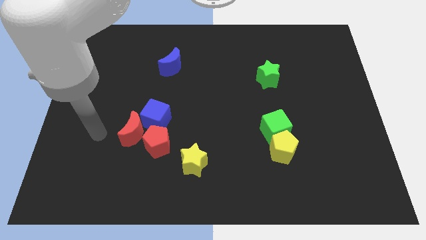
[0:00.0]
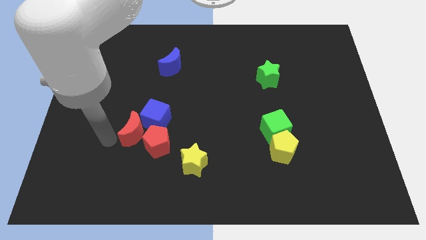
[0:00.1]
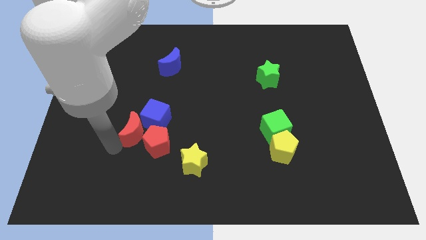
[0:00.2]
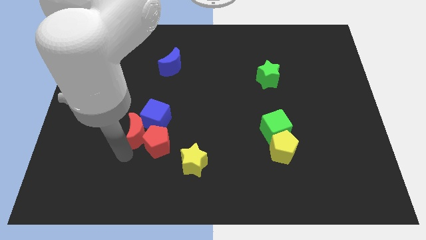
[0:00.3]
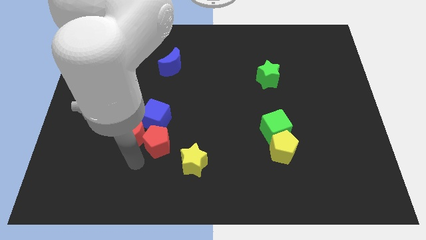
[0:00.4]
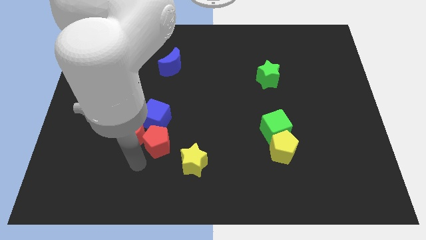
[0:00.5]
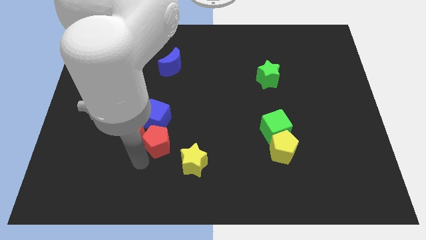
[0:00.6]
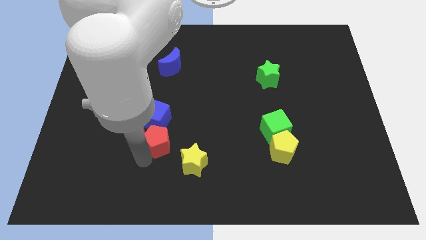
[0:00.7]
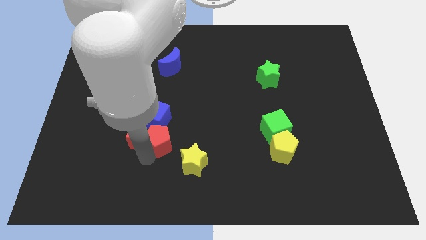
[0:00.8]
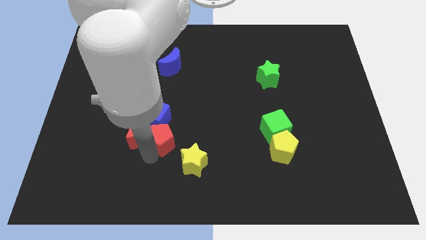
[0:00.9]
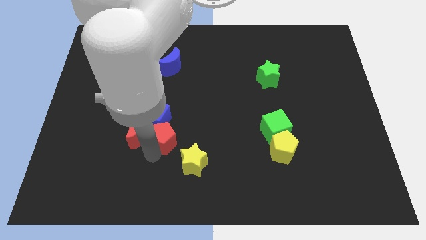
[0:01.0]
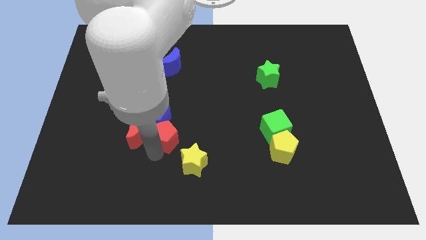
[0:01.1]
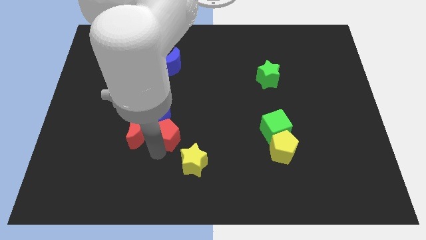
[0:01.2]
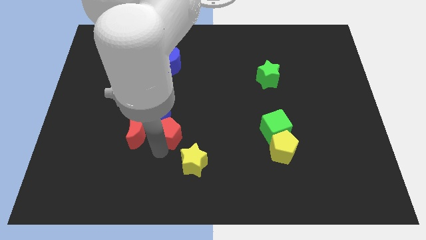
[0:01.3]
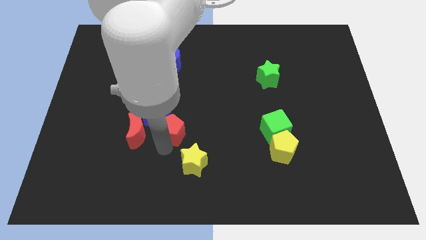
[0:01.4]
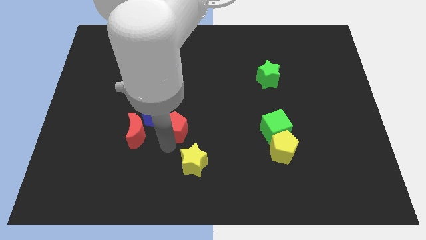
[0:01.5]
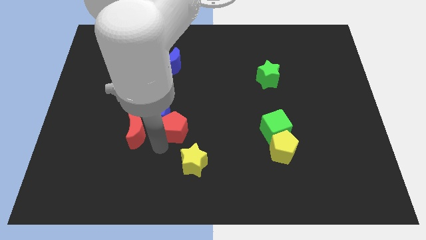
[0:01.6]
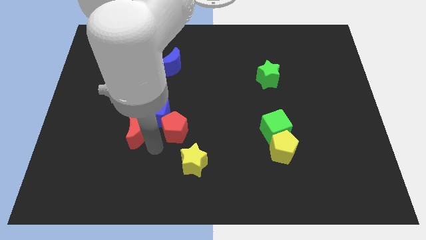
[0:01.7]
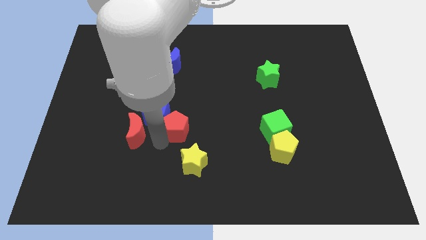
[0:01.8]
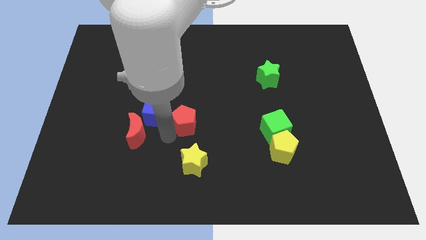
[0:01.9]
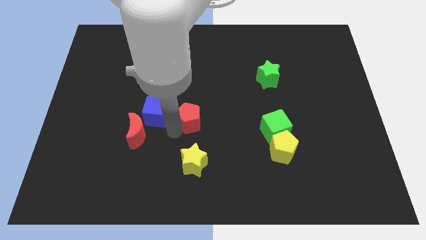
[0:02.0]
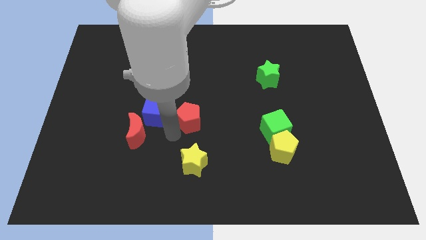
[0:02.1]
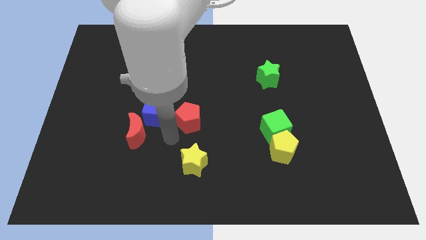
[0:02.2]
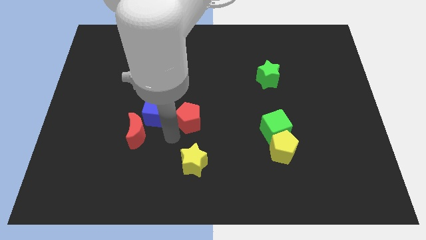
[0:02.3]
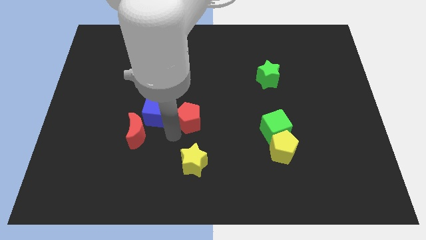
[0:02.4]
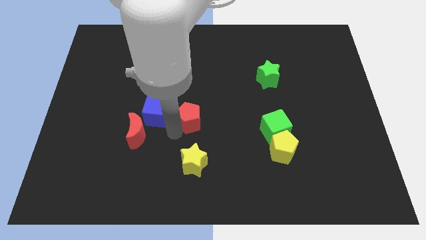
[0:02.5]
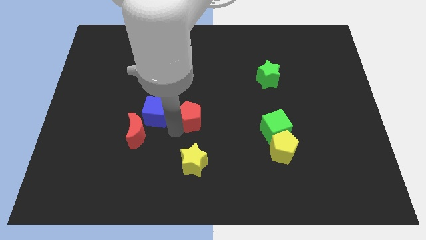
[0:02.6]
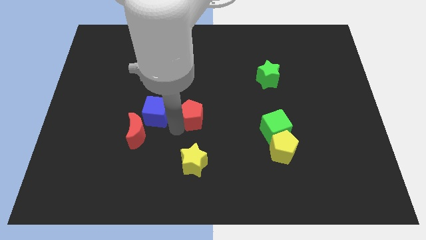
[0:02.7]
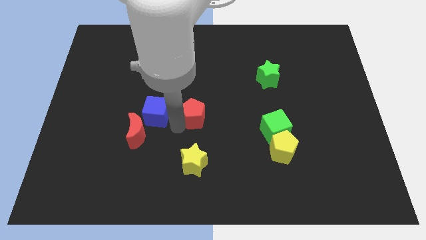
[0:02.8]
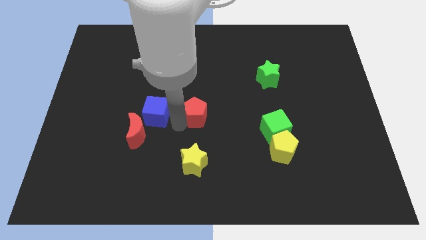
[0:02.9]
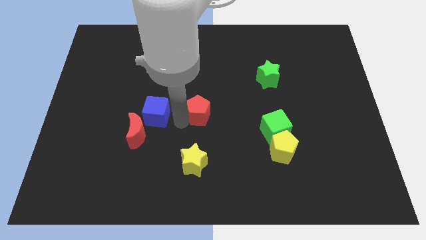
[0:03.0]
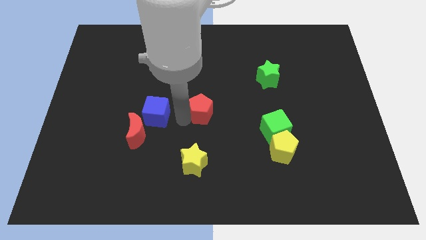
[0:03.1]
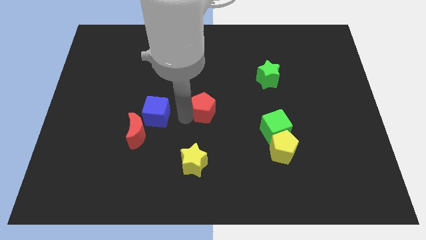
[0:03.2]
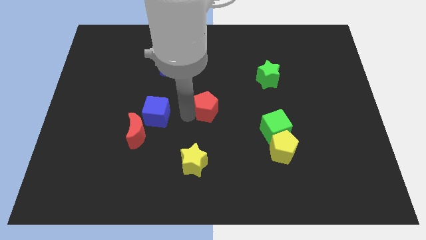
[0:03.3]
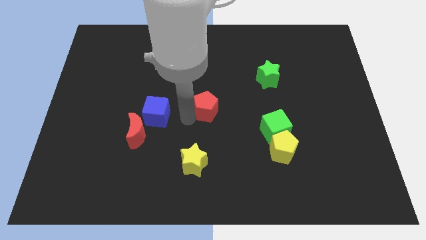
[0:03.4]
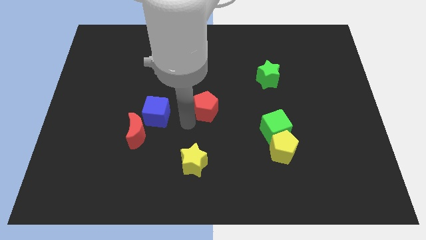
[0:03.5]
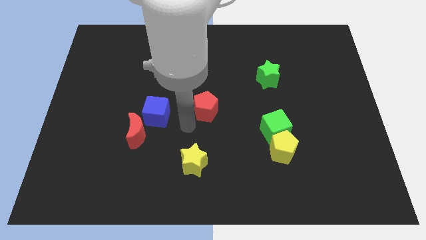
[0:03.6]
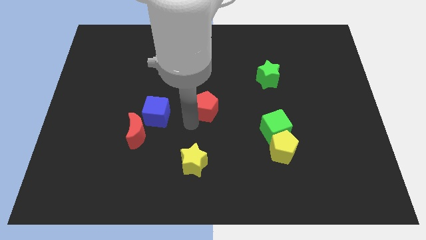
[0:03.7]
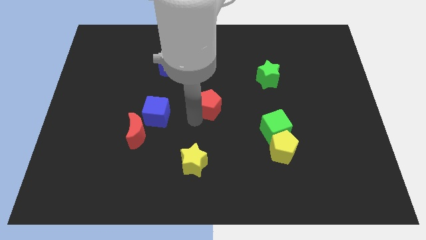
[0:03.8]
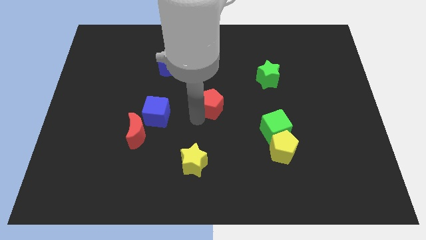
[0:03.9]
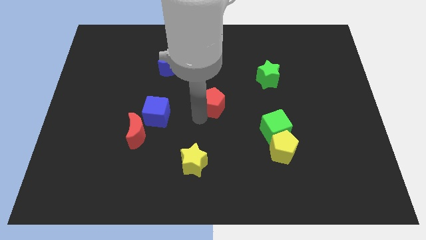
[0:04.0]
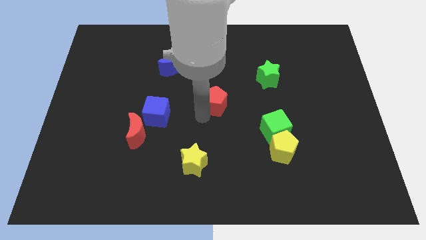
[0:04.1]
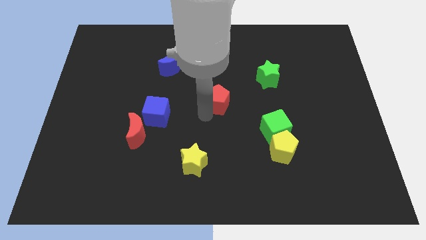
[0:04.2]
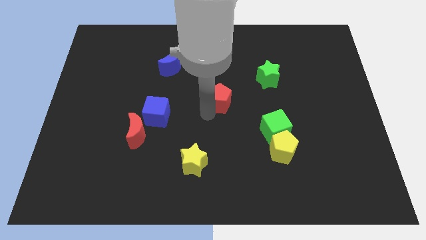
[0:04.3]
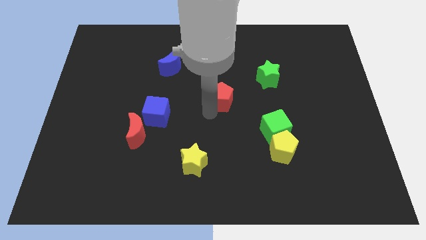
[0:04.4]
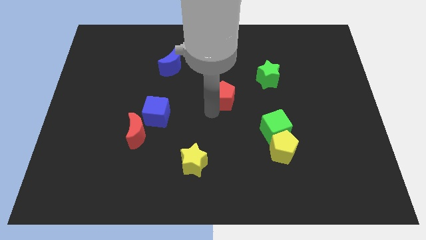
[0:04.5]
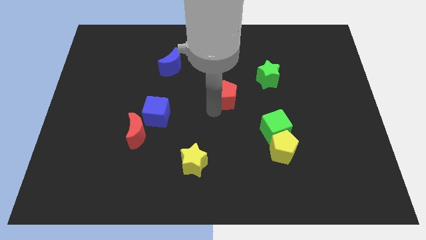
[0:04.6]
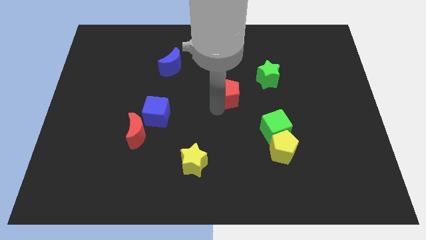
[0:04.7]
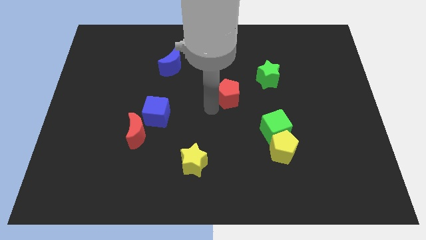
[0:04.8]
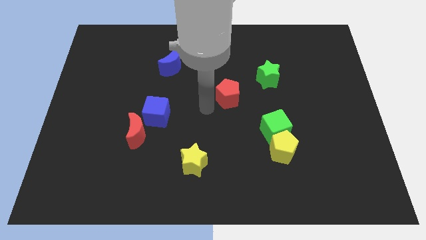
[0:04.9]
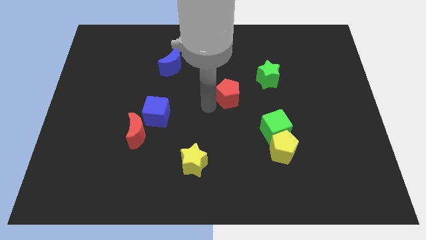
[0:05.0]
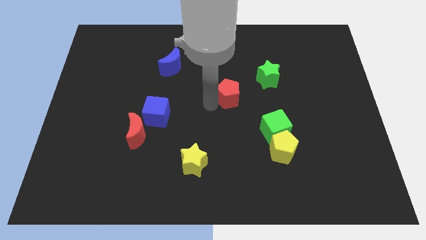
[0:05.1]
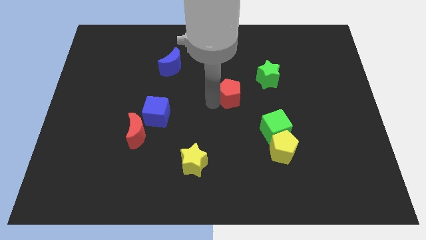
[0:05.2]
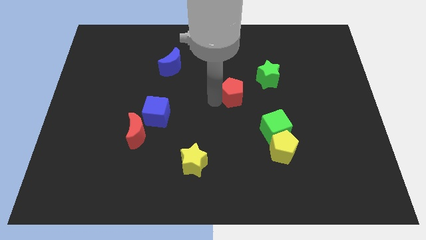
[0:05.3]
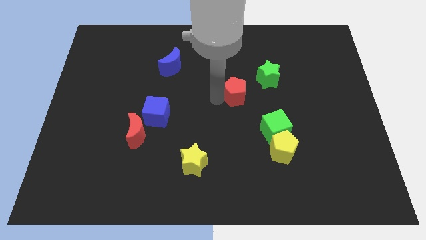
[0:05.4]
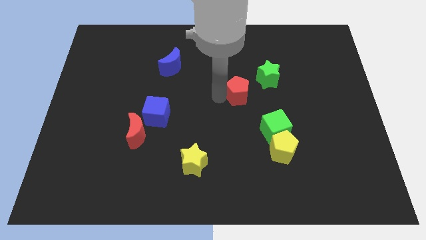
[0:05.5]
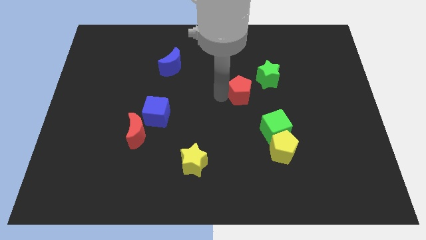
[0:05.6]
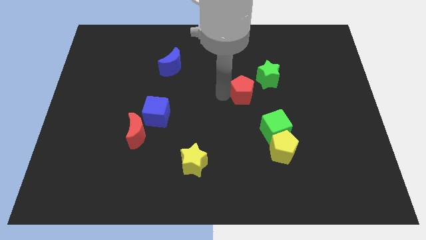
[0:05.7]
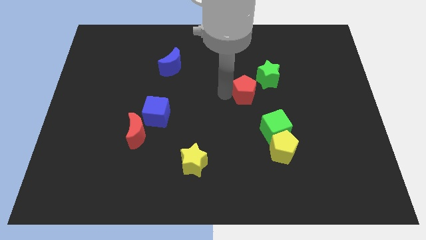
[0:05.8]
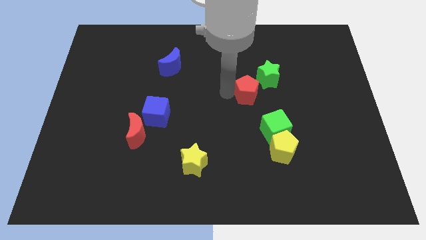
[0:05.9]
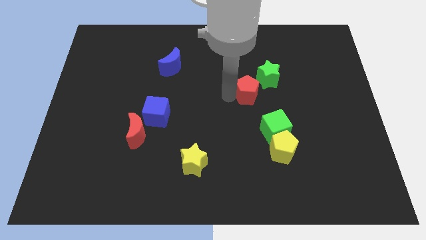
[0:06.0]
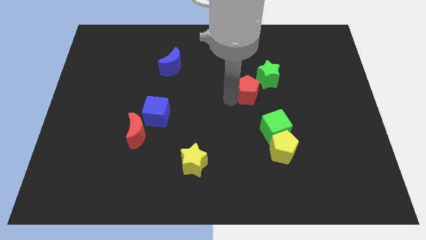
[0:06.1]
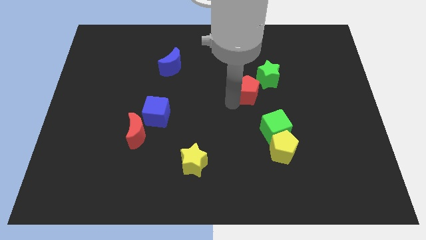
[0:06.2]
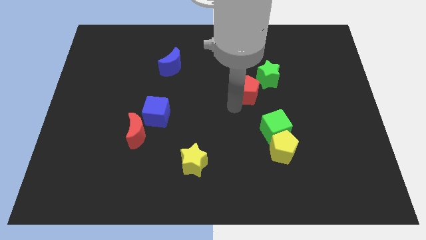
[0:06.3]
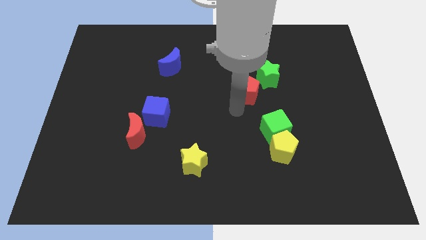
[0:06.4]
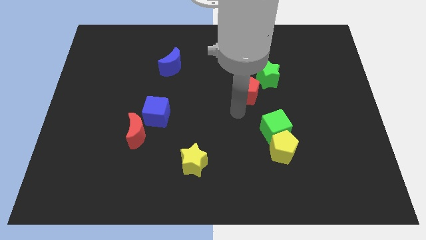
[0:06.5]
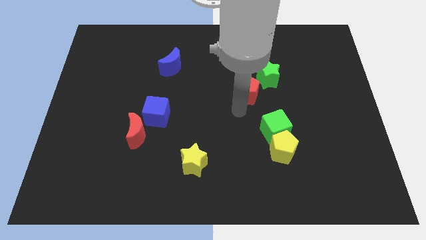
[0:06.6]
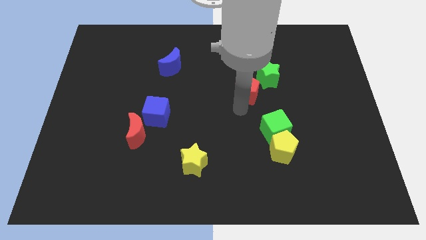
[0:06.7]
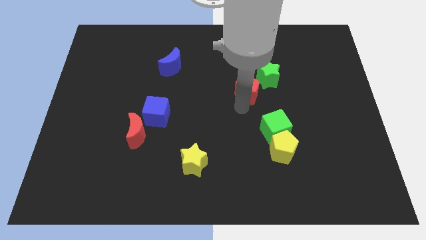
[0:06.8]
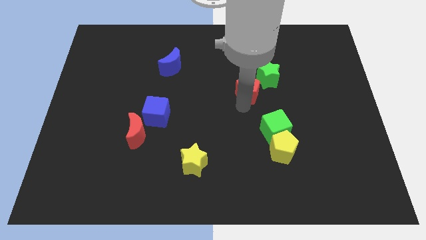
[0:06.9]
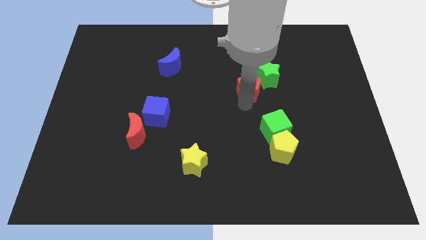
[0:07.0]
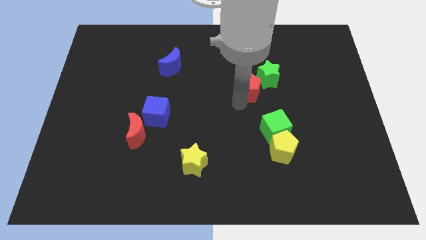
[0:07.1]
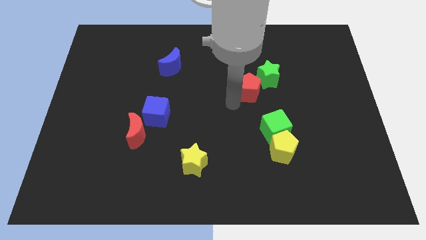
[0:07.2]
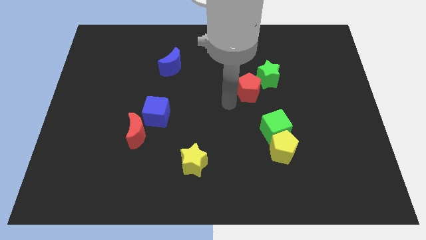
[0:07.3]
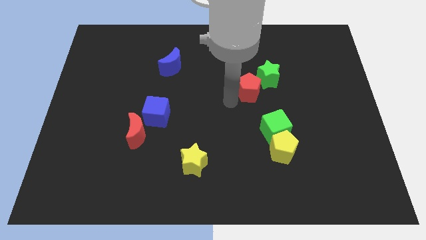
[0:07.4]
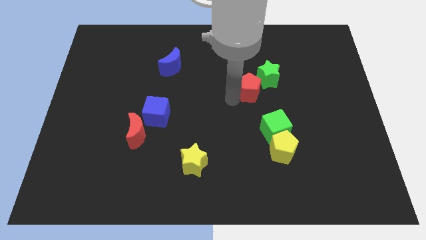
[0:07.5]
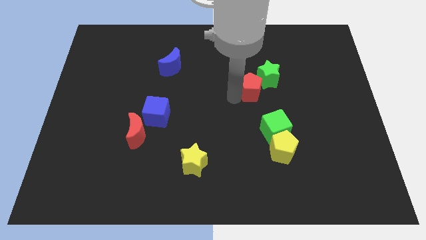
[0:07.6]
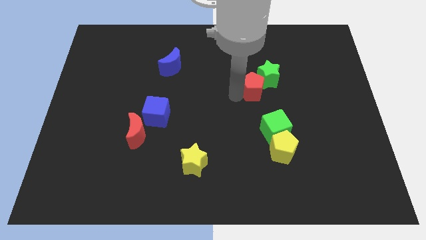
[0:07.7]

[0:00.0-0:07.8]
slide the red pentagon close to the green star
